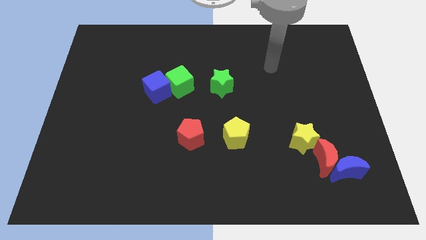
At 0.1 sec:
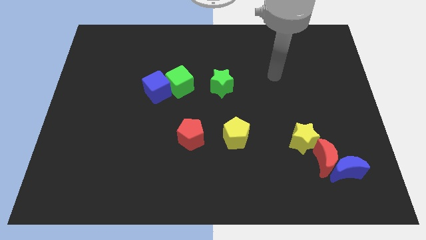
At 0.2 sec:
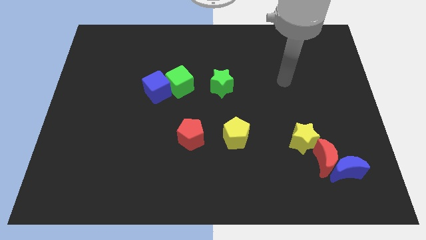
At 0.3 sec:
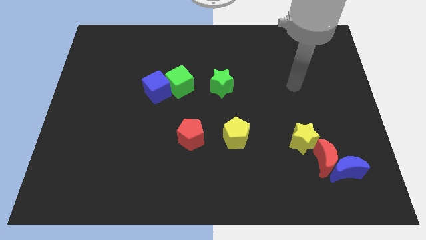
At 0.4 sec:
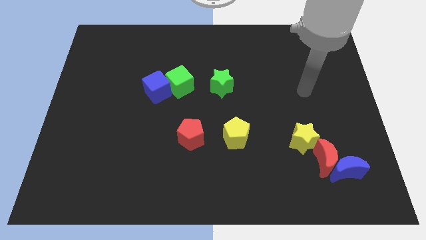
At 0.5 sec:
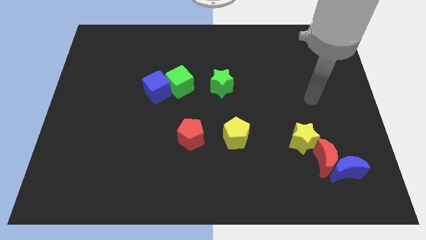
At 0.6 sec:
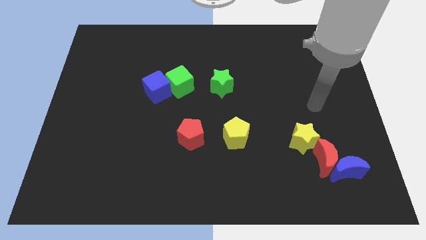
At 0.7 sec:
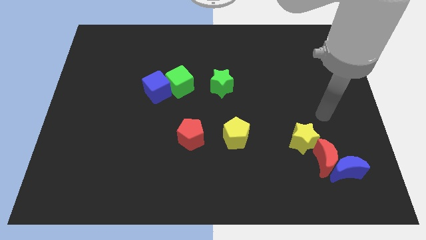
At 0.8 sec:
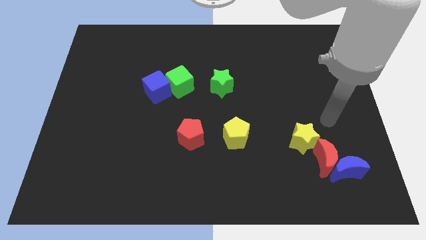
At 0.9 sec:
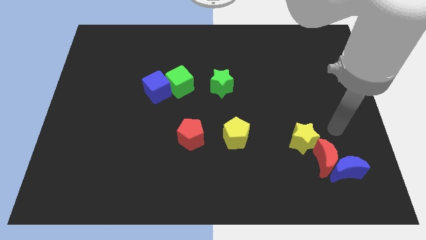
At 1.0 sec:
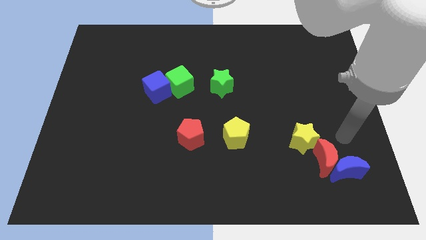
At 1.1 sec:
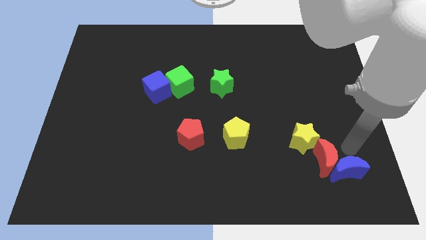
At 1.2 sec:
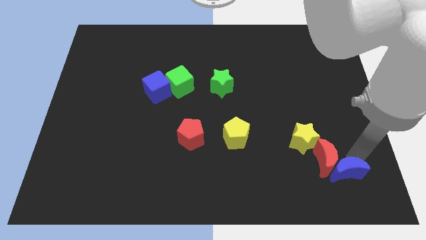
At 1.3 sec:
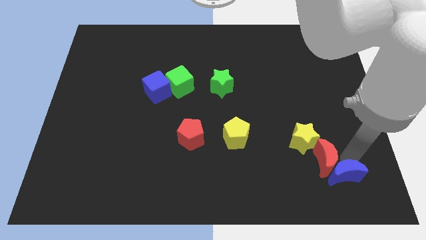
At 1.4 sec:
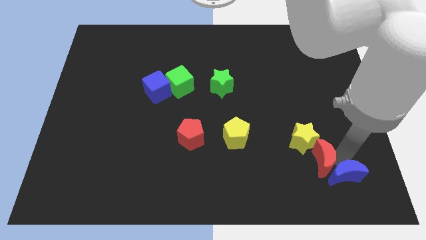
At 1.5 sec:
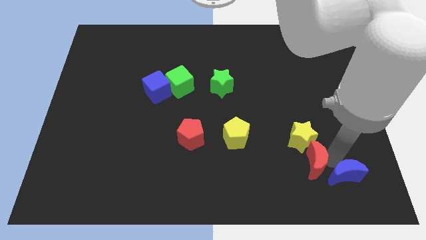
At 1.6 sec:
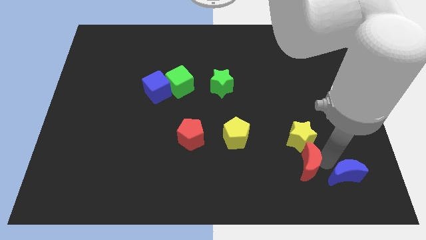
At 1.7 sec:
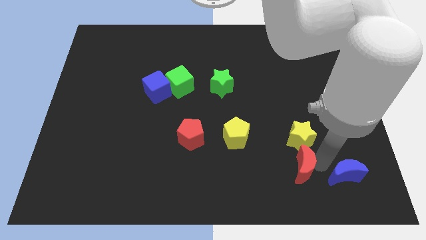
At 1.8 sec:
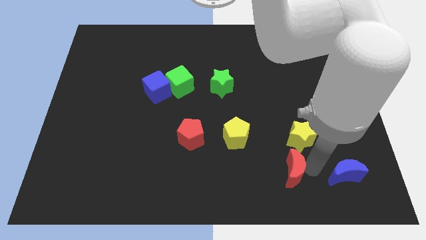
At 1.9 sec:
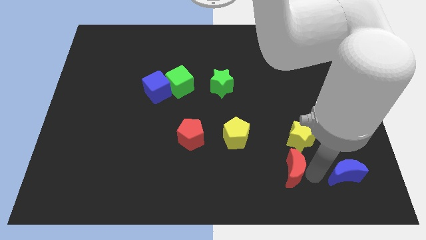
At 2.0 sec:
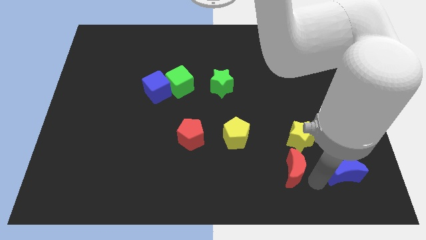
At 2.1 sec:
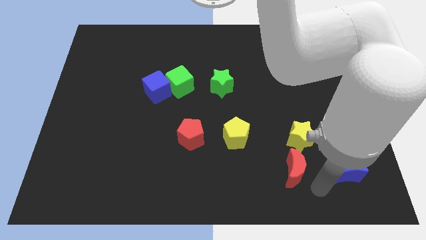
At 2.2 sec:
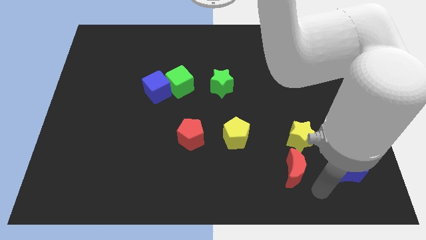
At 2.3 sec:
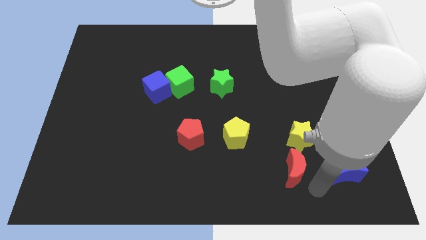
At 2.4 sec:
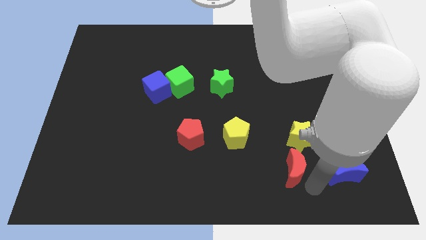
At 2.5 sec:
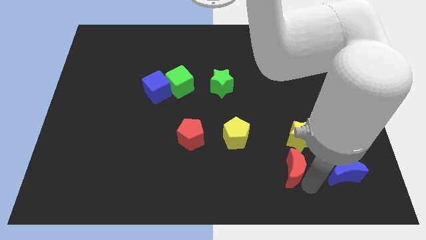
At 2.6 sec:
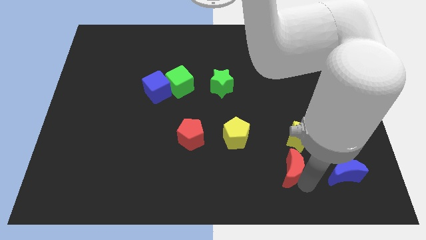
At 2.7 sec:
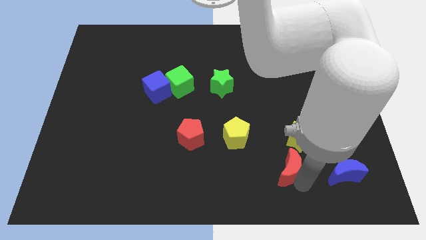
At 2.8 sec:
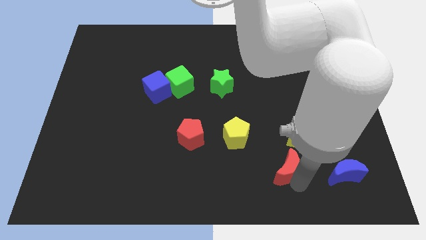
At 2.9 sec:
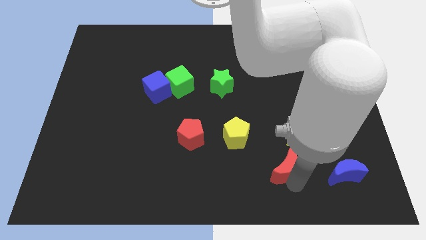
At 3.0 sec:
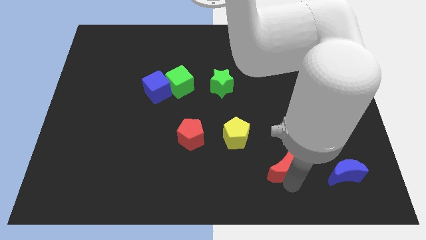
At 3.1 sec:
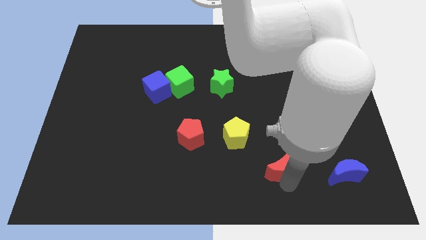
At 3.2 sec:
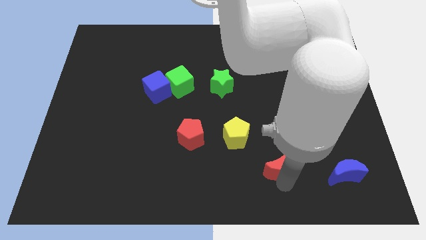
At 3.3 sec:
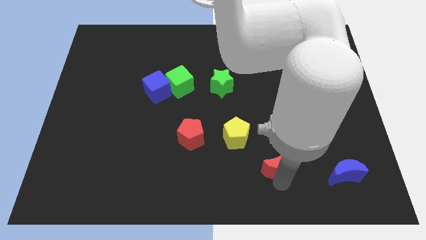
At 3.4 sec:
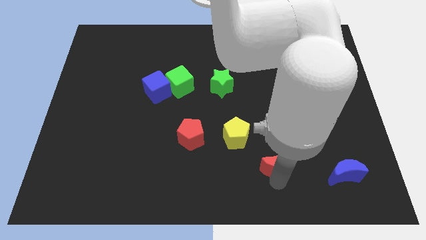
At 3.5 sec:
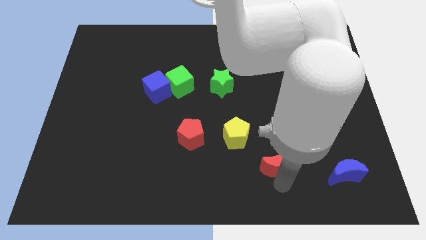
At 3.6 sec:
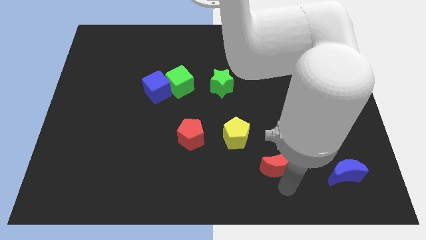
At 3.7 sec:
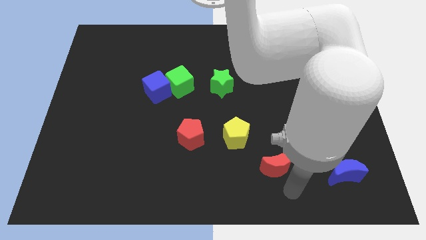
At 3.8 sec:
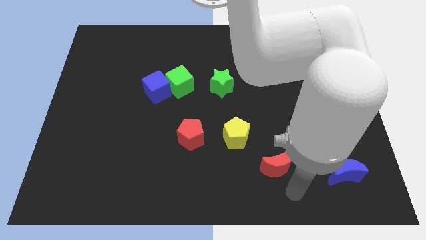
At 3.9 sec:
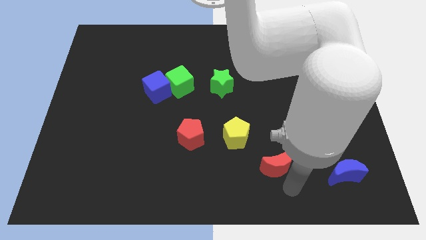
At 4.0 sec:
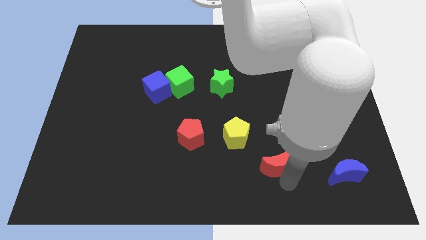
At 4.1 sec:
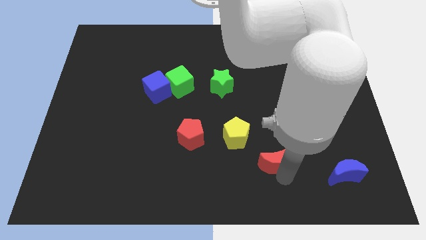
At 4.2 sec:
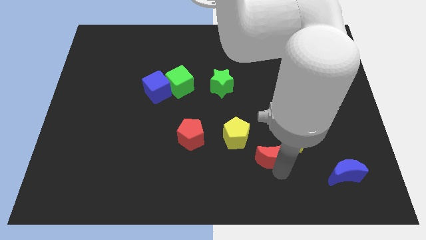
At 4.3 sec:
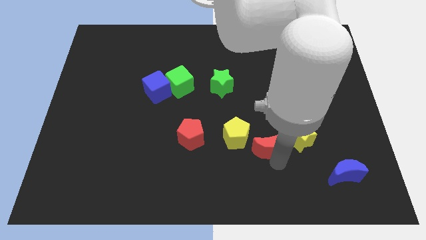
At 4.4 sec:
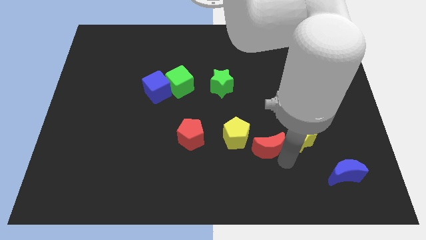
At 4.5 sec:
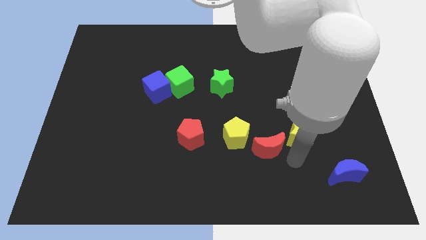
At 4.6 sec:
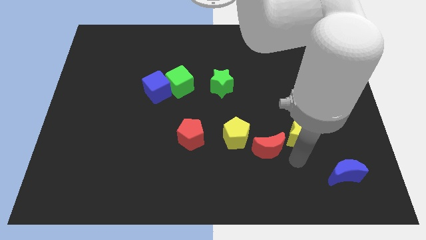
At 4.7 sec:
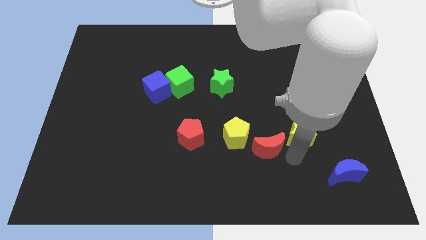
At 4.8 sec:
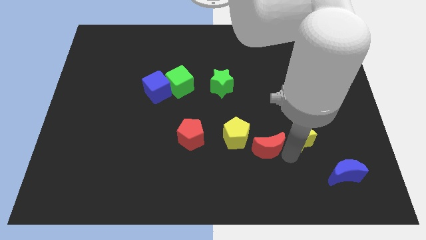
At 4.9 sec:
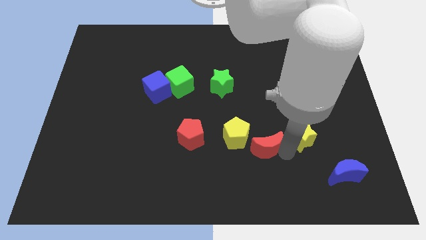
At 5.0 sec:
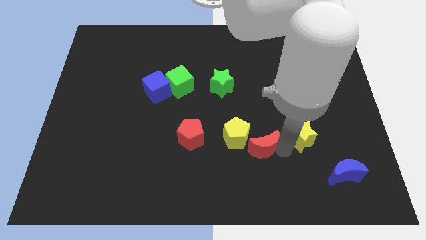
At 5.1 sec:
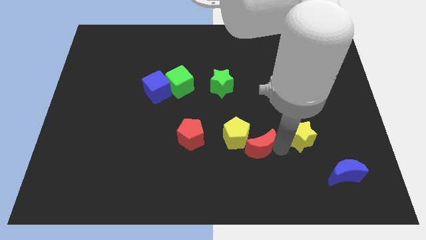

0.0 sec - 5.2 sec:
move the red moon next to the yellow pentagon

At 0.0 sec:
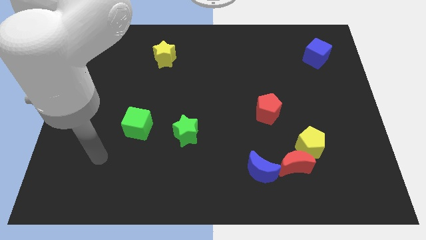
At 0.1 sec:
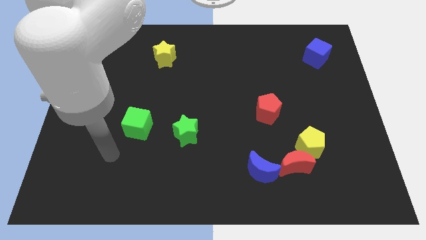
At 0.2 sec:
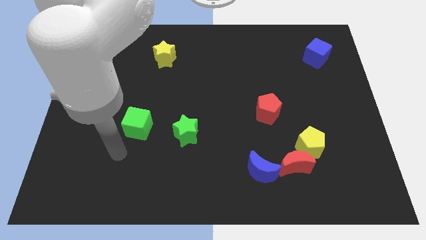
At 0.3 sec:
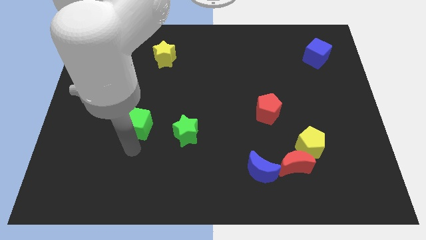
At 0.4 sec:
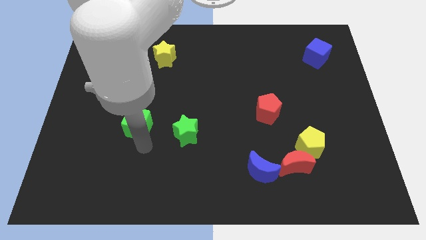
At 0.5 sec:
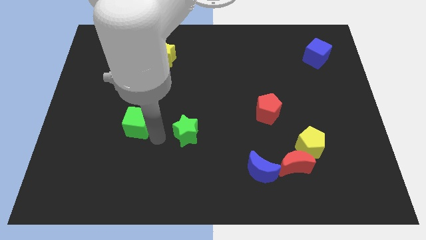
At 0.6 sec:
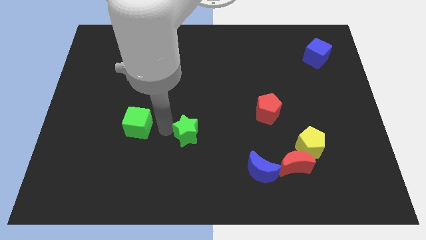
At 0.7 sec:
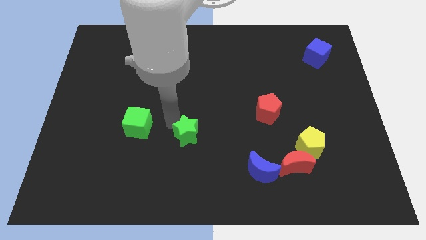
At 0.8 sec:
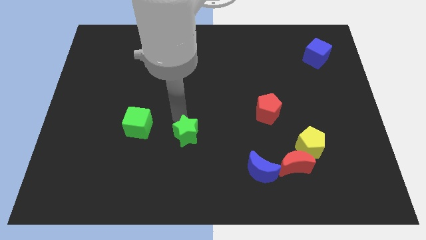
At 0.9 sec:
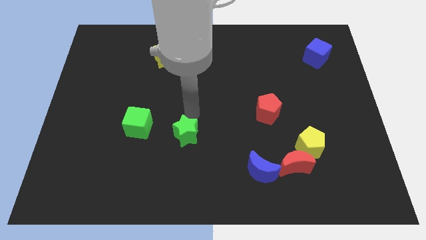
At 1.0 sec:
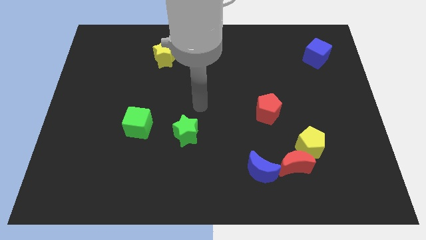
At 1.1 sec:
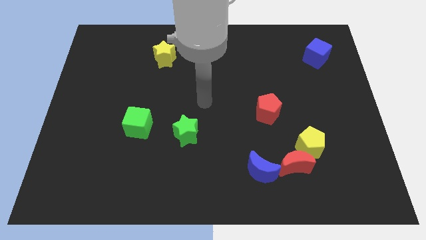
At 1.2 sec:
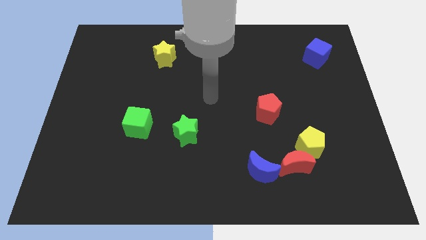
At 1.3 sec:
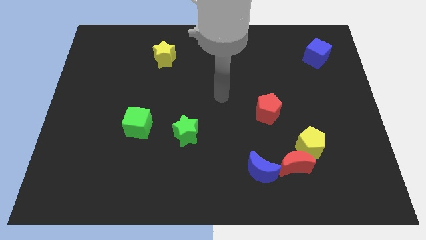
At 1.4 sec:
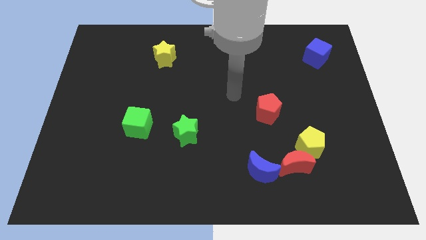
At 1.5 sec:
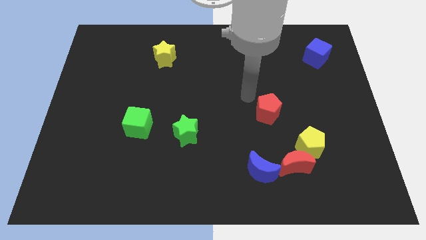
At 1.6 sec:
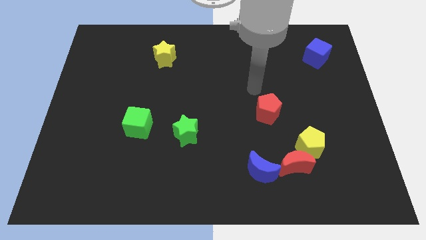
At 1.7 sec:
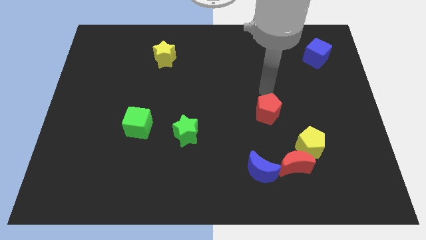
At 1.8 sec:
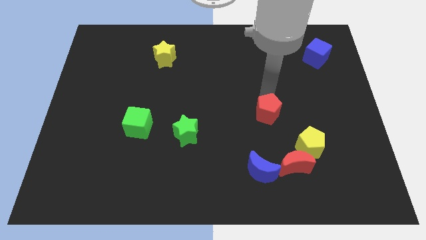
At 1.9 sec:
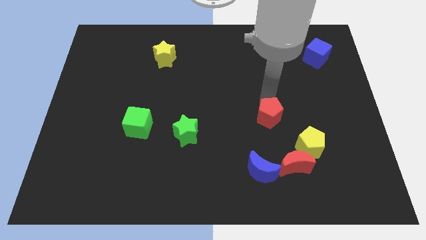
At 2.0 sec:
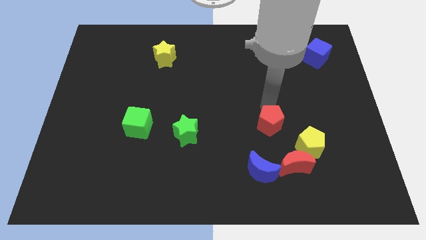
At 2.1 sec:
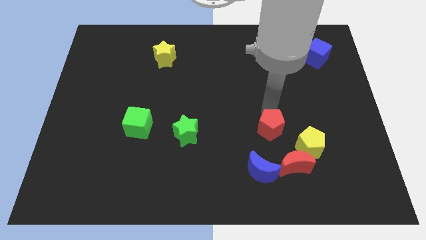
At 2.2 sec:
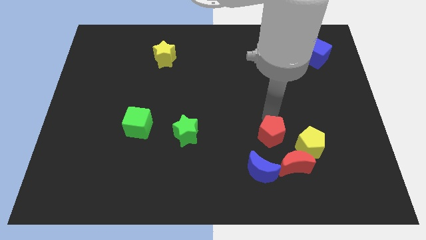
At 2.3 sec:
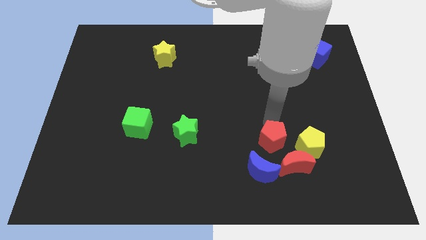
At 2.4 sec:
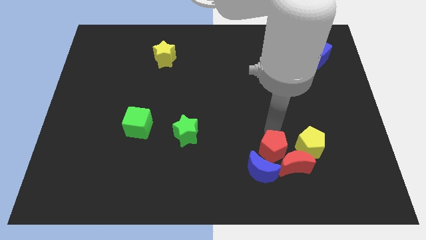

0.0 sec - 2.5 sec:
move the red pentagon next to the blue moon
